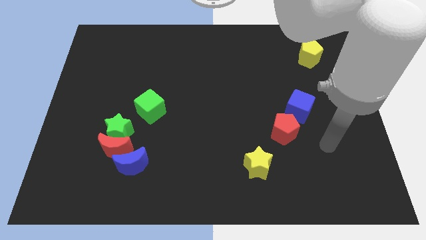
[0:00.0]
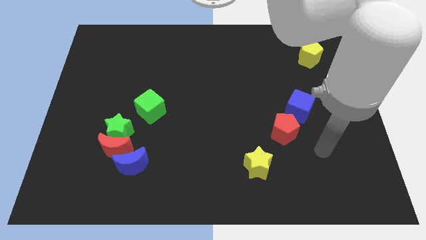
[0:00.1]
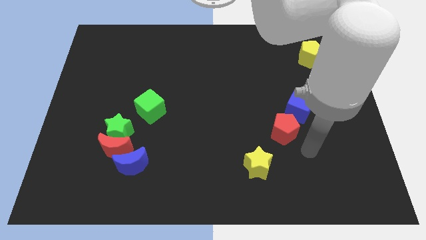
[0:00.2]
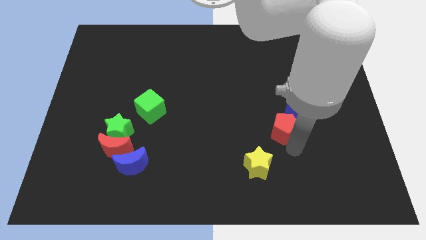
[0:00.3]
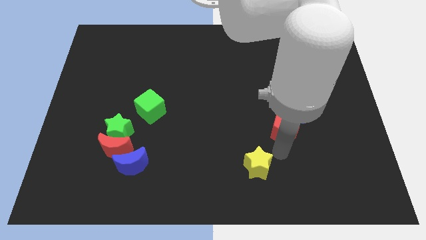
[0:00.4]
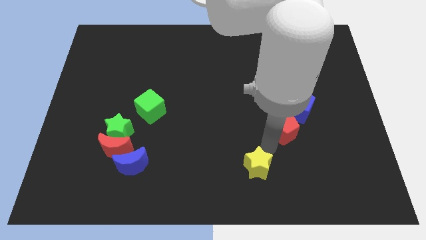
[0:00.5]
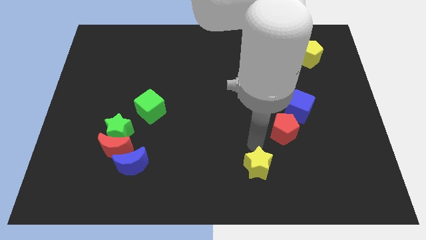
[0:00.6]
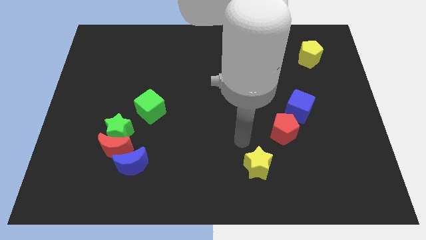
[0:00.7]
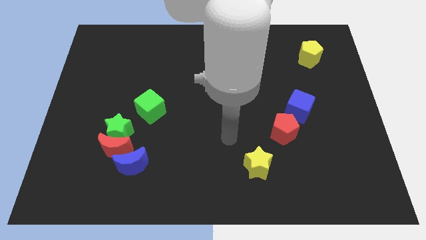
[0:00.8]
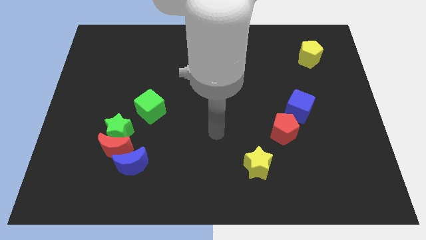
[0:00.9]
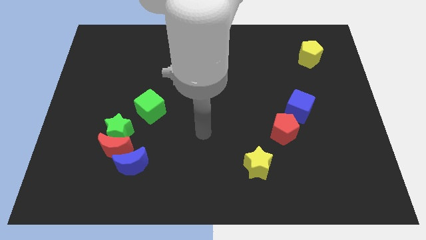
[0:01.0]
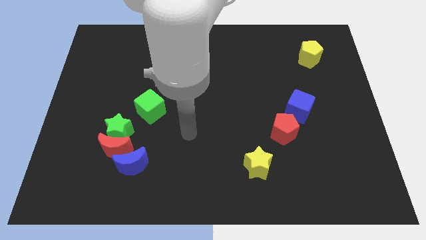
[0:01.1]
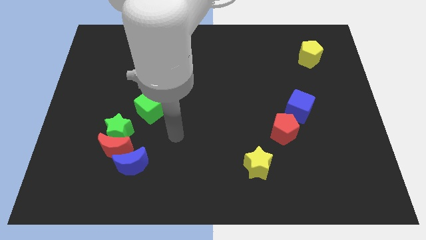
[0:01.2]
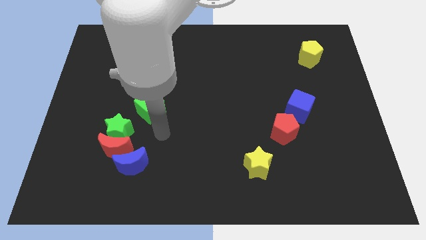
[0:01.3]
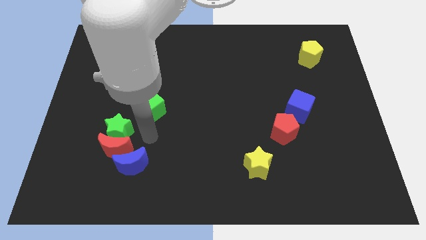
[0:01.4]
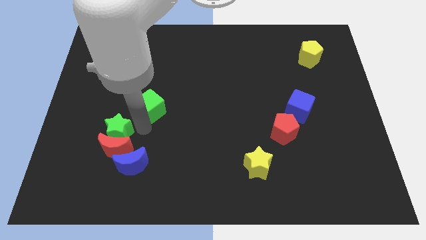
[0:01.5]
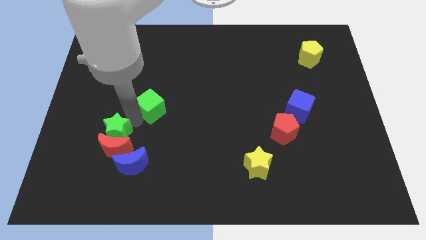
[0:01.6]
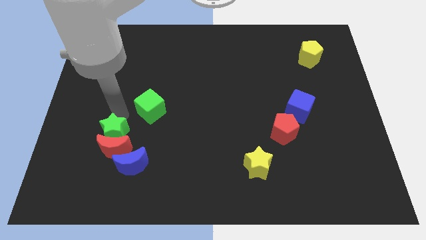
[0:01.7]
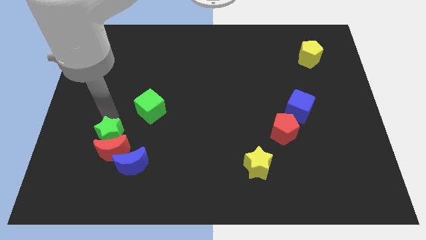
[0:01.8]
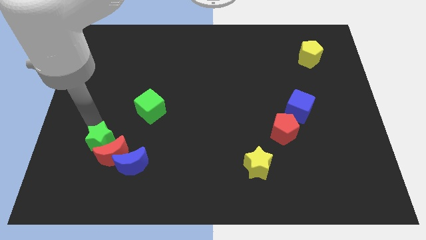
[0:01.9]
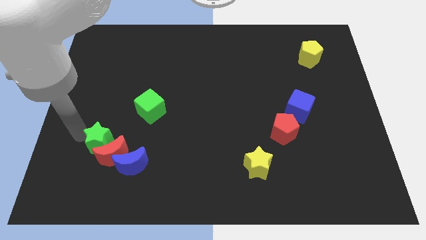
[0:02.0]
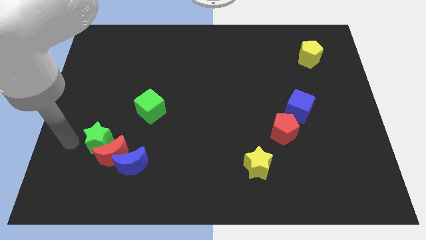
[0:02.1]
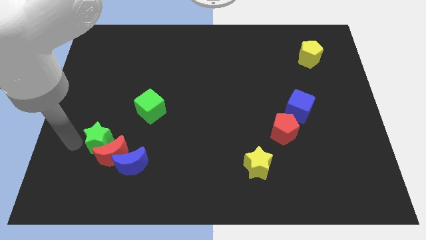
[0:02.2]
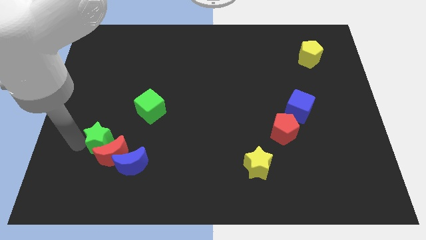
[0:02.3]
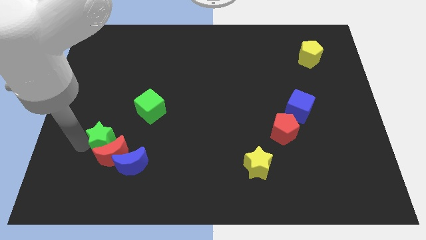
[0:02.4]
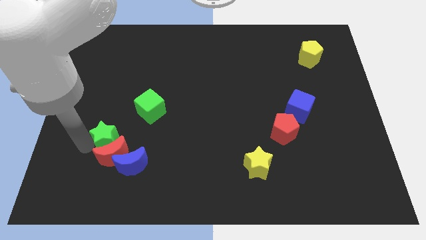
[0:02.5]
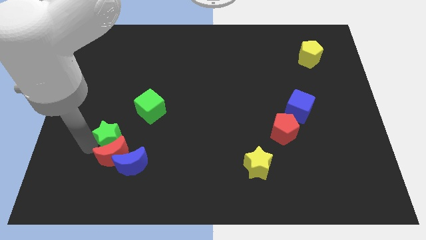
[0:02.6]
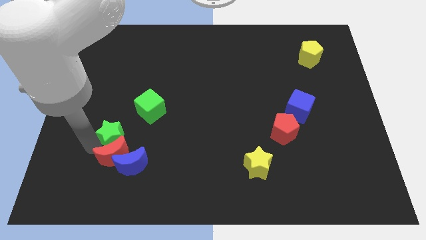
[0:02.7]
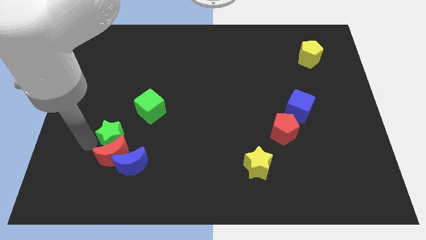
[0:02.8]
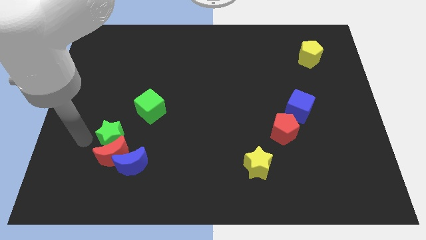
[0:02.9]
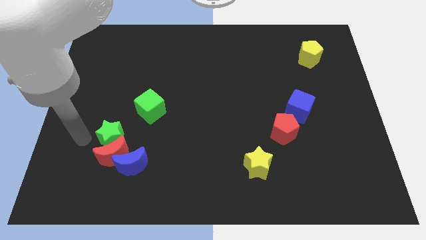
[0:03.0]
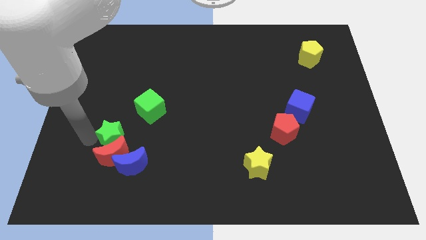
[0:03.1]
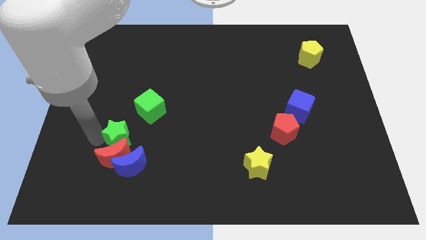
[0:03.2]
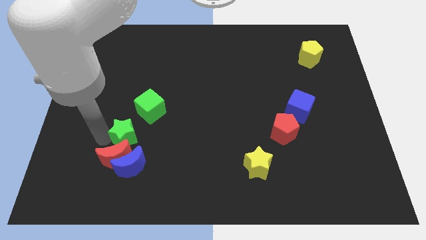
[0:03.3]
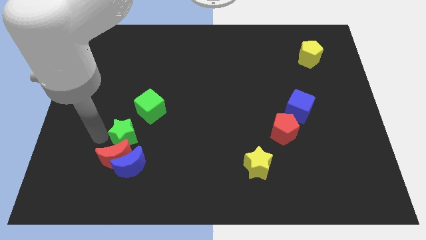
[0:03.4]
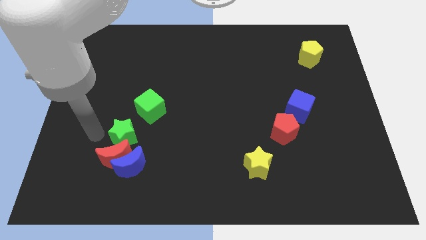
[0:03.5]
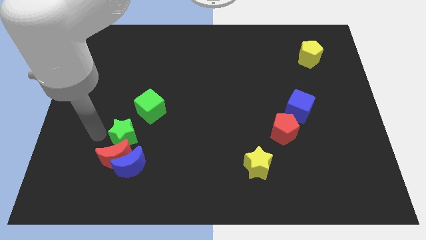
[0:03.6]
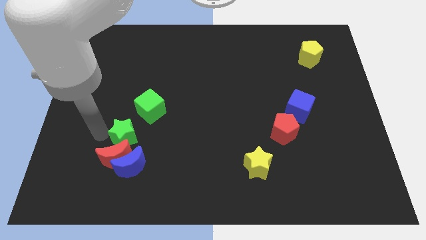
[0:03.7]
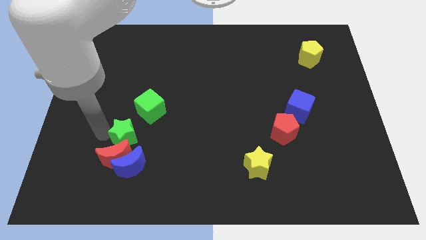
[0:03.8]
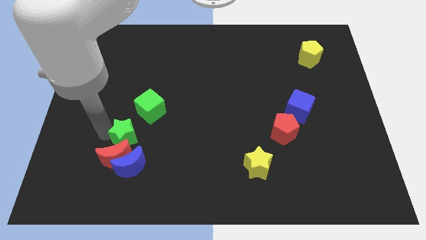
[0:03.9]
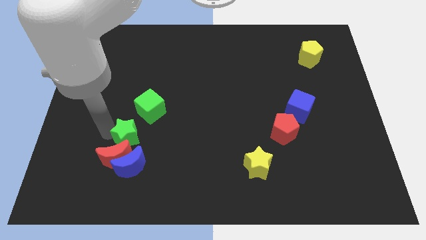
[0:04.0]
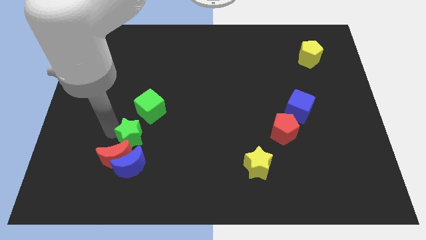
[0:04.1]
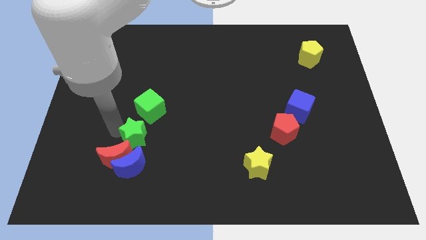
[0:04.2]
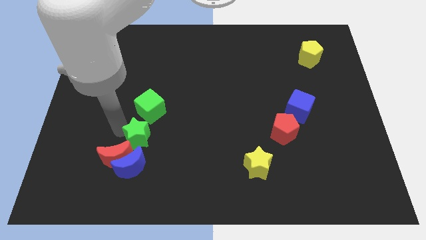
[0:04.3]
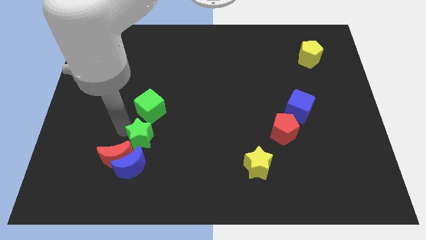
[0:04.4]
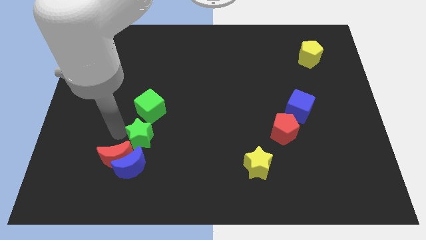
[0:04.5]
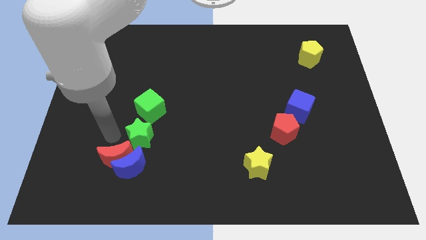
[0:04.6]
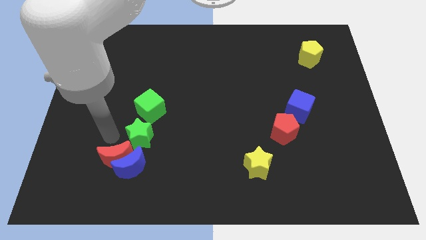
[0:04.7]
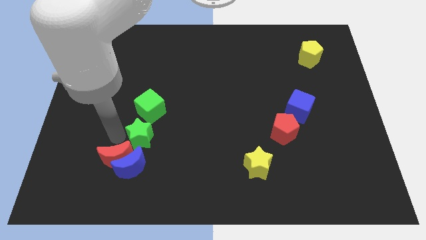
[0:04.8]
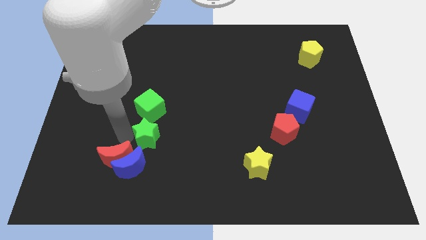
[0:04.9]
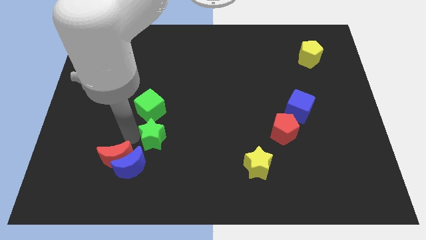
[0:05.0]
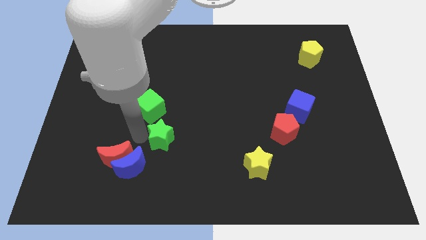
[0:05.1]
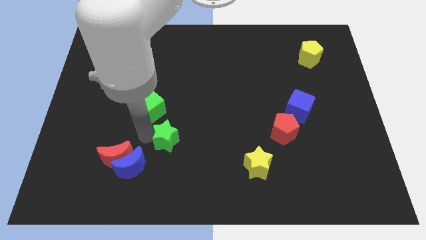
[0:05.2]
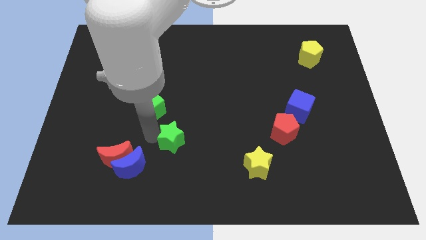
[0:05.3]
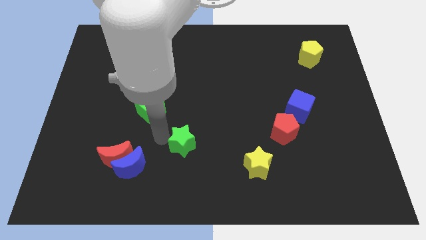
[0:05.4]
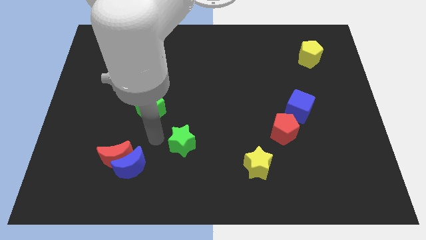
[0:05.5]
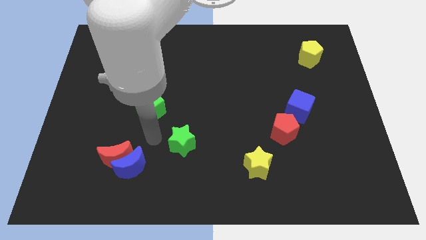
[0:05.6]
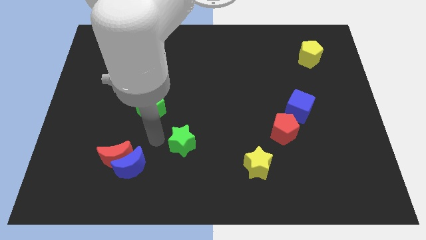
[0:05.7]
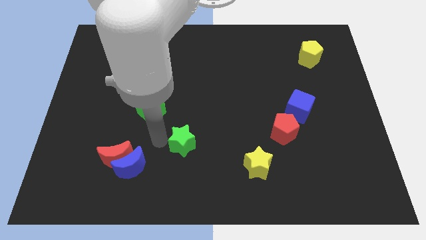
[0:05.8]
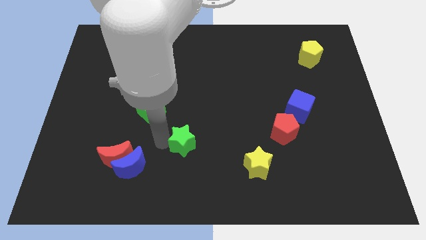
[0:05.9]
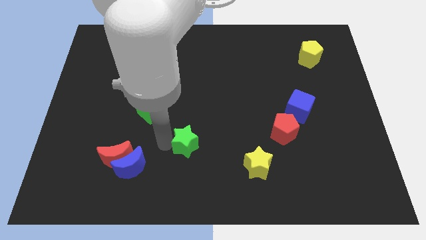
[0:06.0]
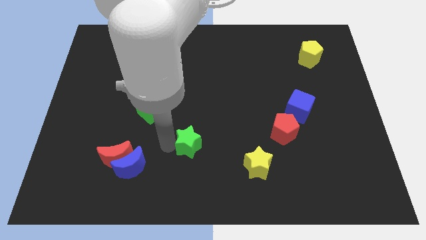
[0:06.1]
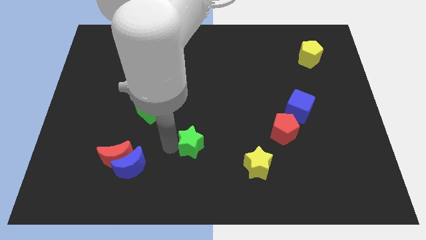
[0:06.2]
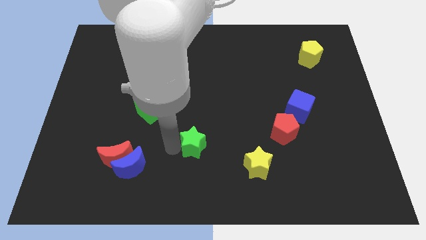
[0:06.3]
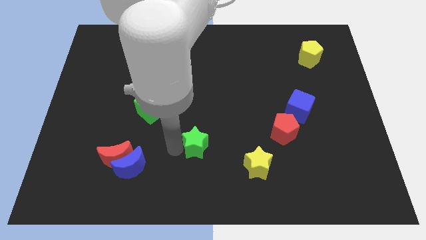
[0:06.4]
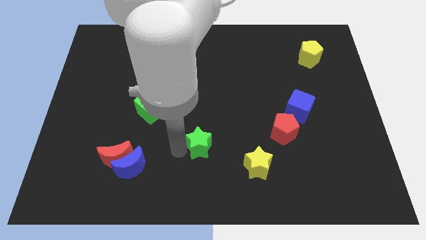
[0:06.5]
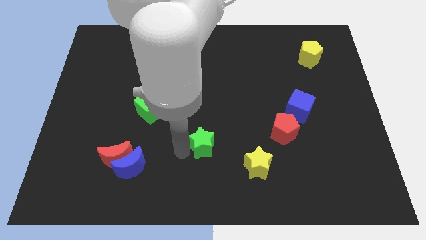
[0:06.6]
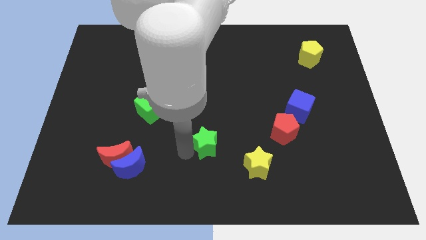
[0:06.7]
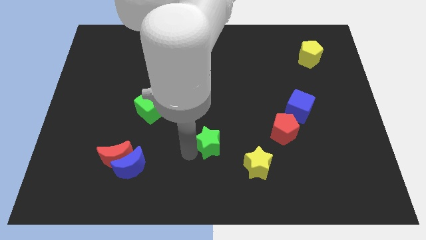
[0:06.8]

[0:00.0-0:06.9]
put the green star to the top left side of the yellow star
